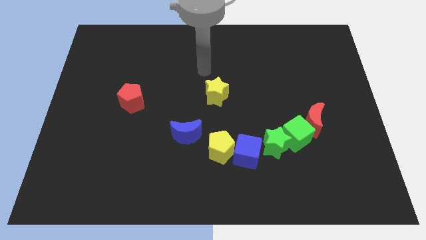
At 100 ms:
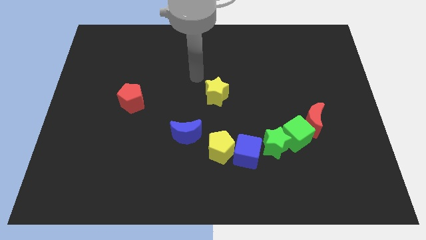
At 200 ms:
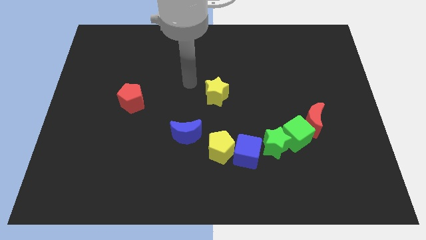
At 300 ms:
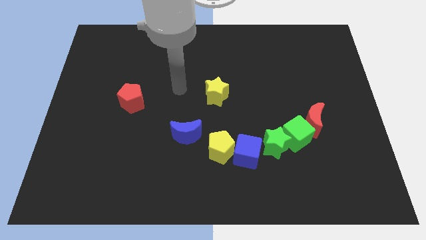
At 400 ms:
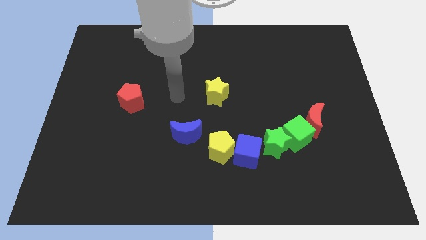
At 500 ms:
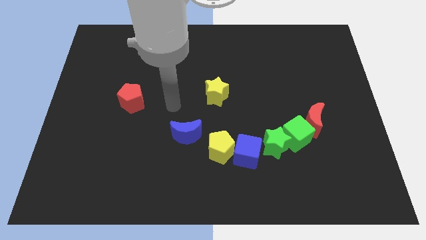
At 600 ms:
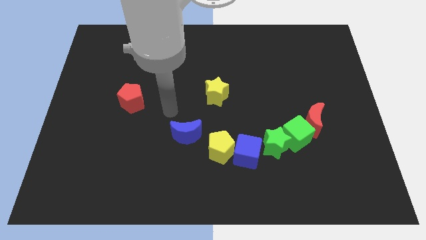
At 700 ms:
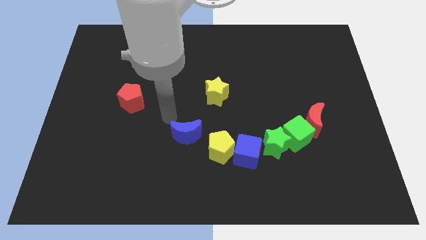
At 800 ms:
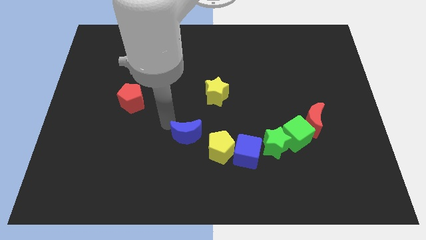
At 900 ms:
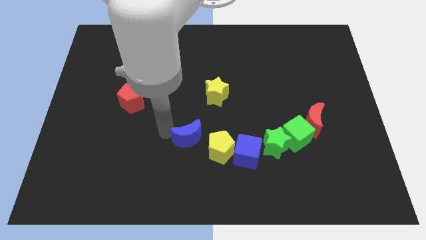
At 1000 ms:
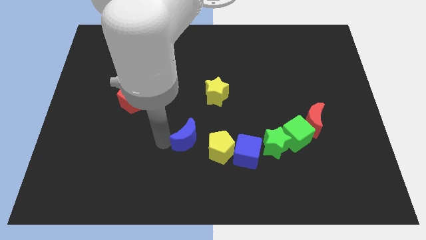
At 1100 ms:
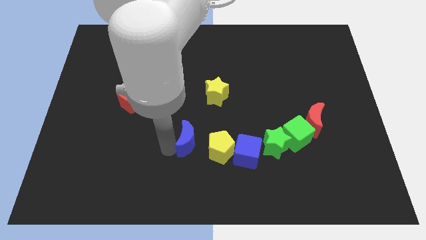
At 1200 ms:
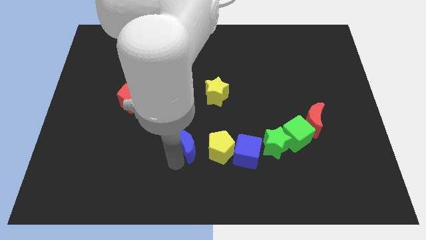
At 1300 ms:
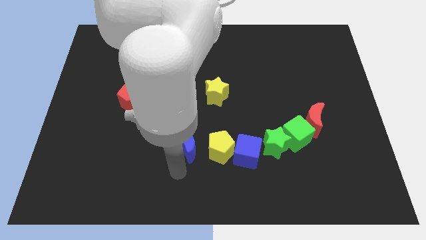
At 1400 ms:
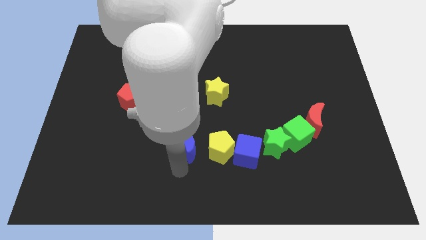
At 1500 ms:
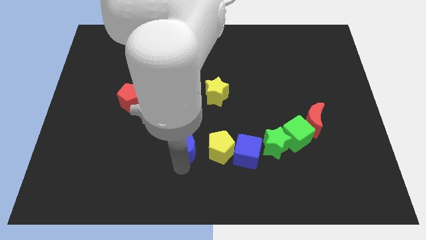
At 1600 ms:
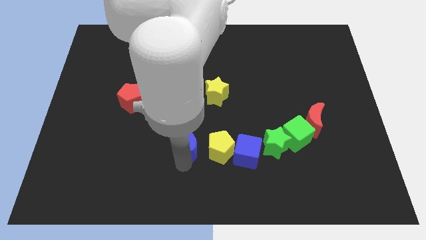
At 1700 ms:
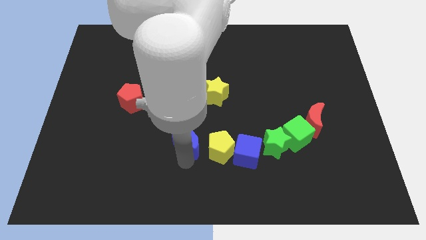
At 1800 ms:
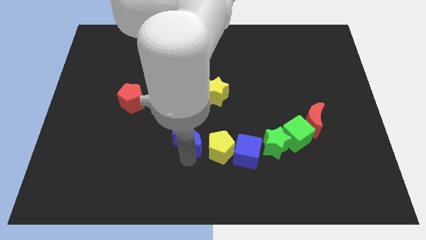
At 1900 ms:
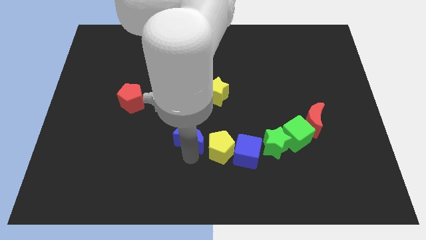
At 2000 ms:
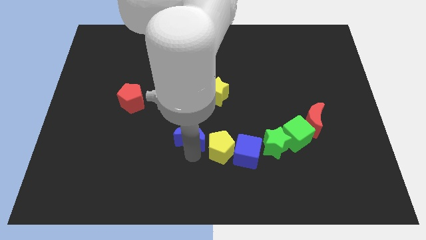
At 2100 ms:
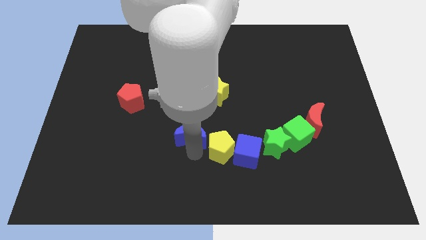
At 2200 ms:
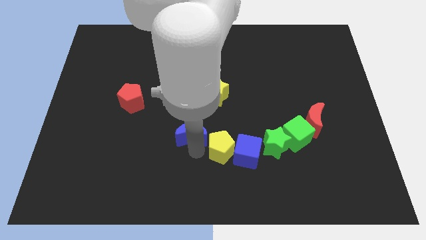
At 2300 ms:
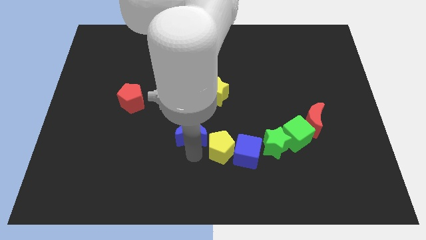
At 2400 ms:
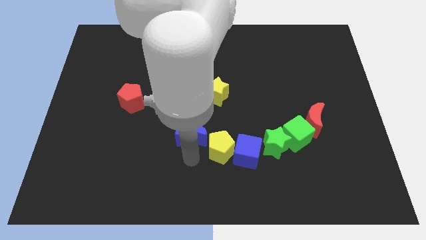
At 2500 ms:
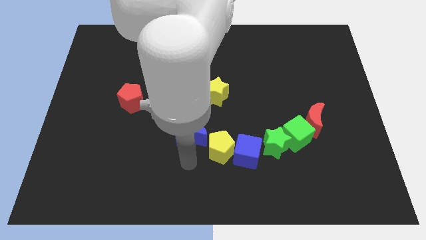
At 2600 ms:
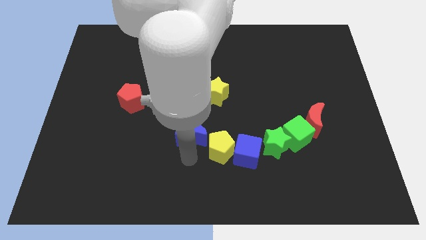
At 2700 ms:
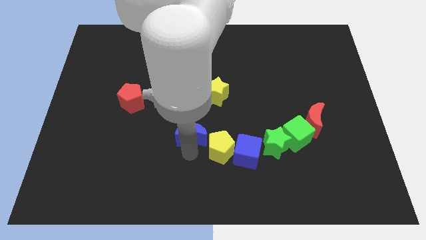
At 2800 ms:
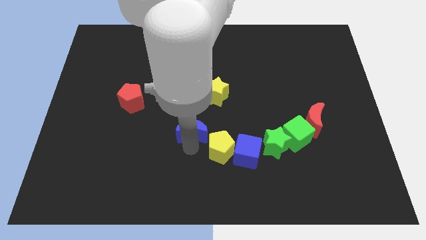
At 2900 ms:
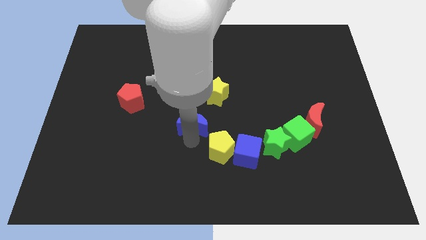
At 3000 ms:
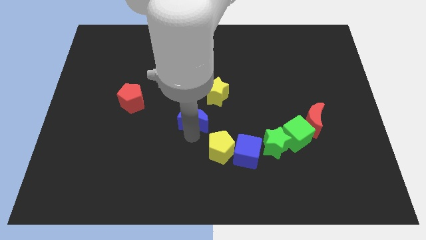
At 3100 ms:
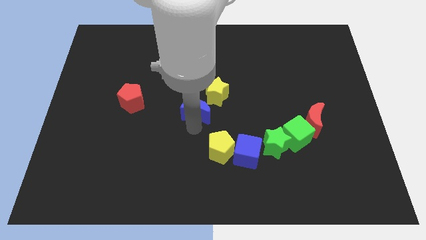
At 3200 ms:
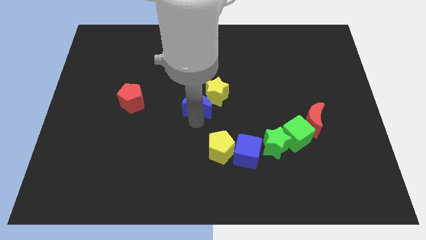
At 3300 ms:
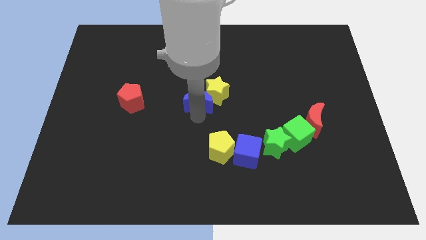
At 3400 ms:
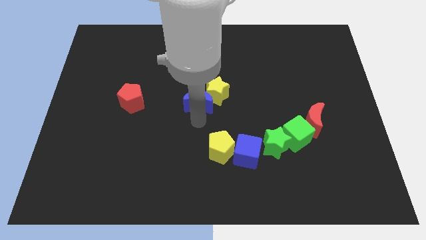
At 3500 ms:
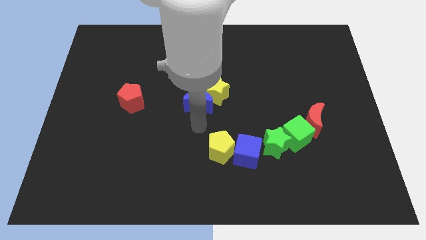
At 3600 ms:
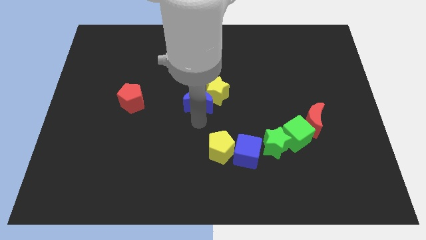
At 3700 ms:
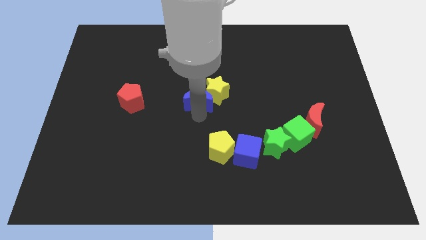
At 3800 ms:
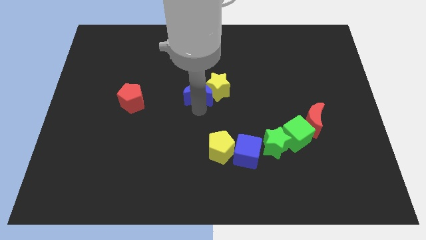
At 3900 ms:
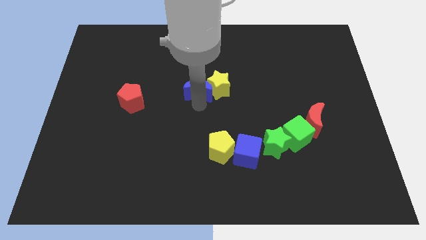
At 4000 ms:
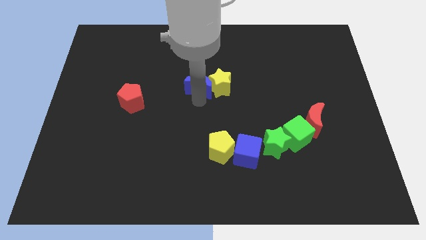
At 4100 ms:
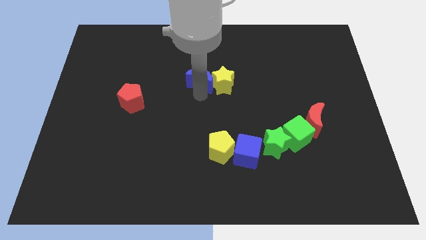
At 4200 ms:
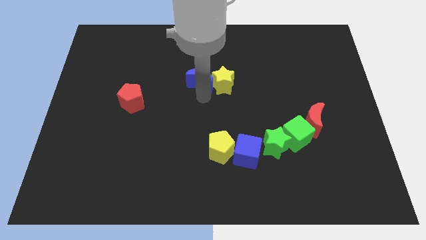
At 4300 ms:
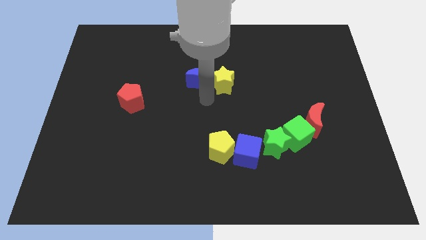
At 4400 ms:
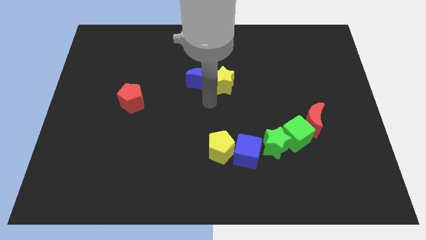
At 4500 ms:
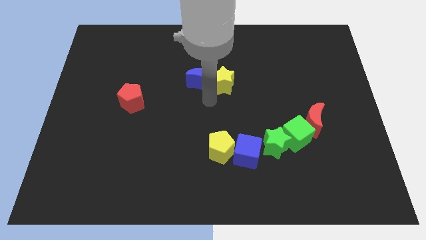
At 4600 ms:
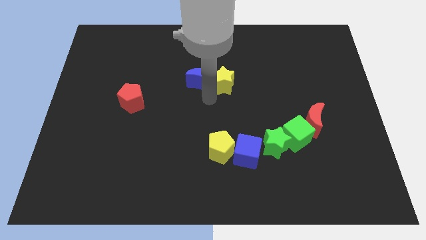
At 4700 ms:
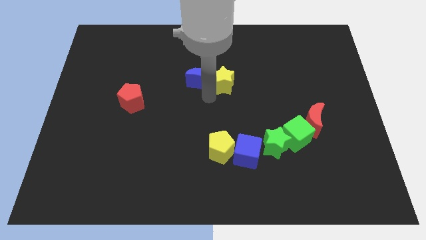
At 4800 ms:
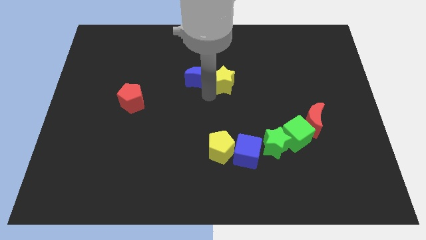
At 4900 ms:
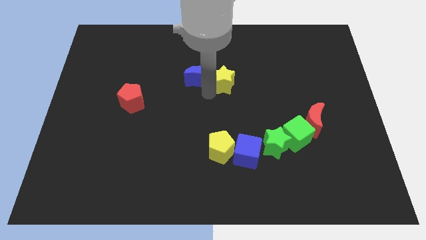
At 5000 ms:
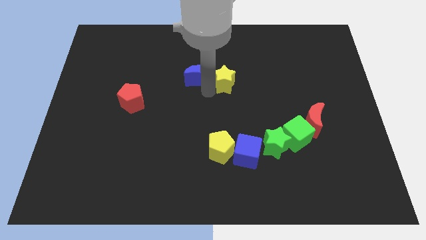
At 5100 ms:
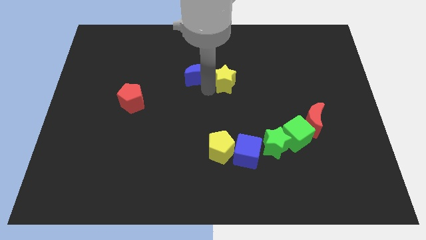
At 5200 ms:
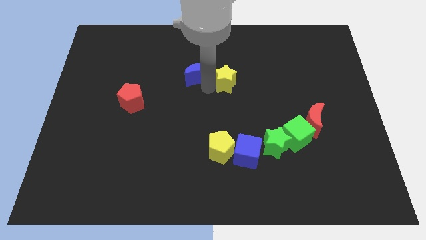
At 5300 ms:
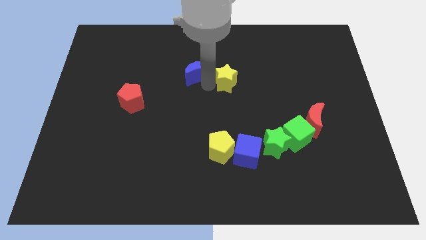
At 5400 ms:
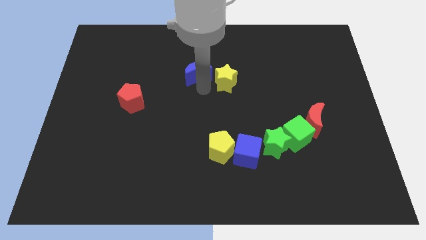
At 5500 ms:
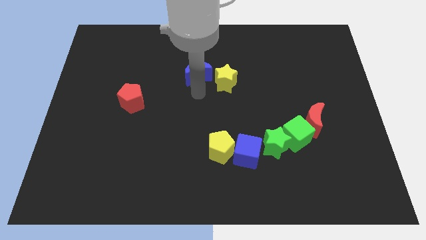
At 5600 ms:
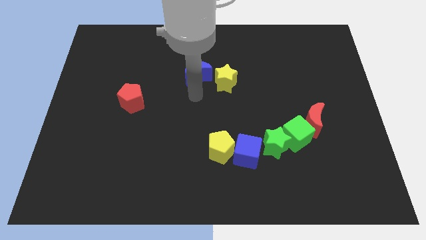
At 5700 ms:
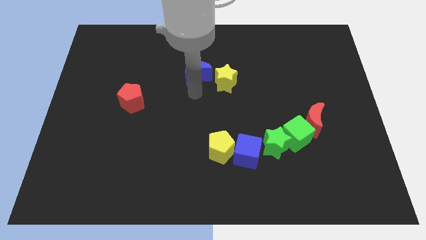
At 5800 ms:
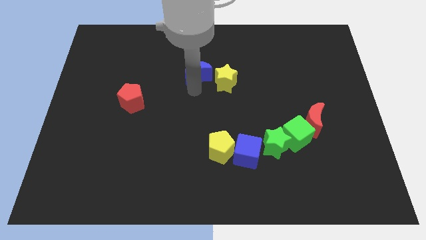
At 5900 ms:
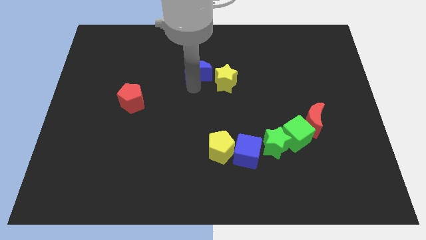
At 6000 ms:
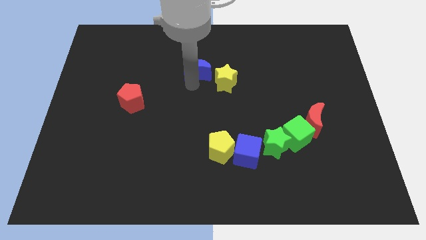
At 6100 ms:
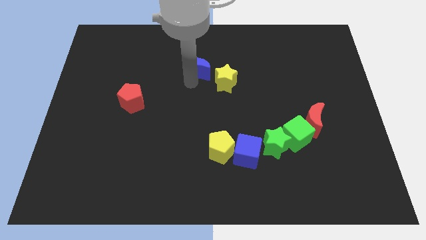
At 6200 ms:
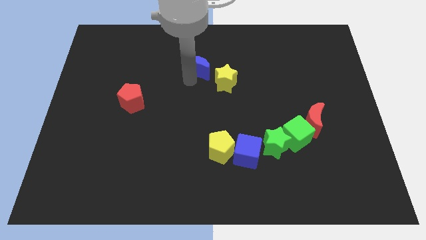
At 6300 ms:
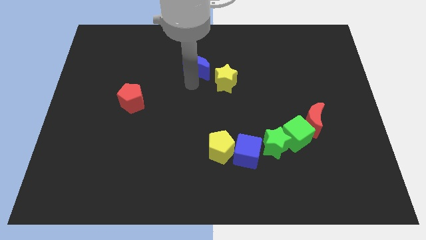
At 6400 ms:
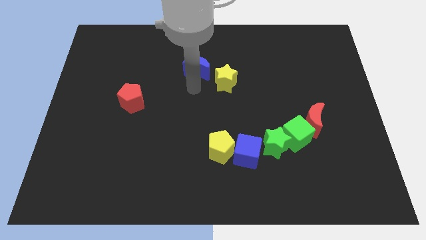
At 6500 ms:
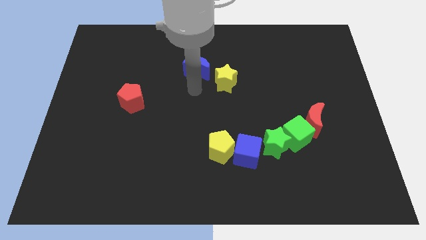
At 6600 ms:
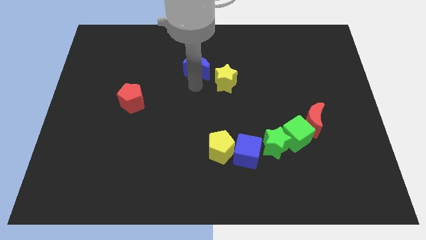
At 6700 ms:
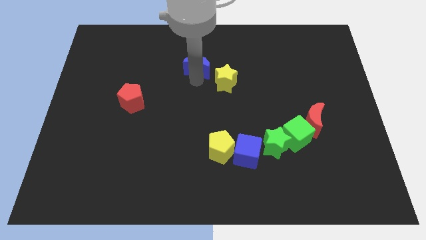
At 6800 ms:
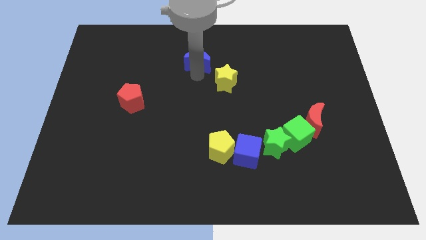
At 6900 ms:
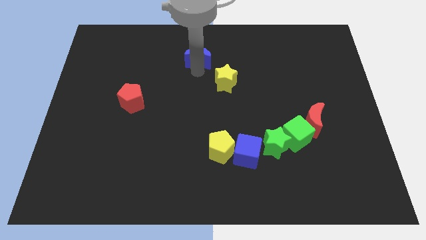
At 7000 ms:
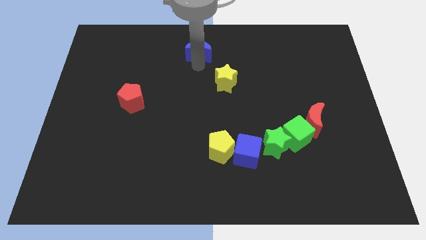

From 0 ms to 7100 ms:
slide the blue moon to the top side
